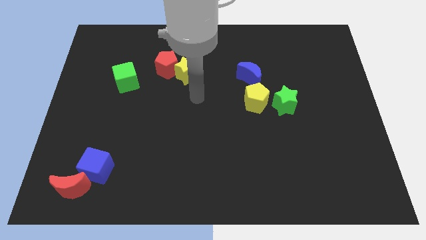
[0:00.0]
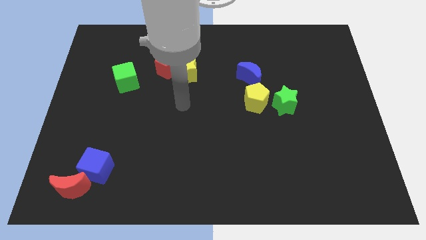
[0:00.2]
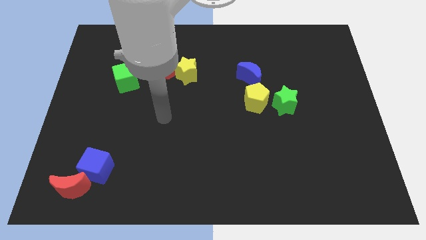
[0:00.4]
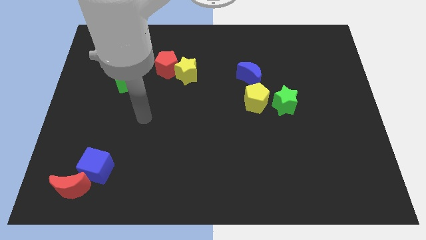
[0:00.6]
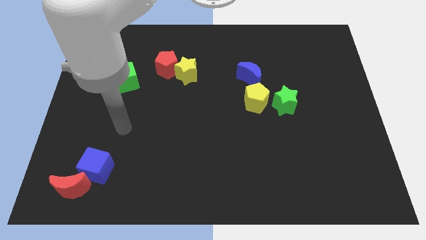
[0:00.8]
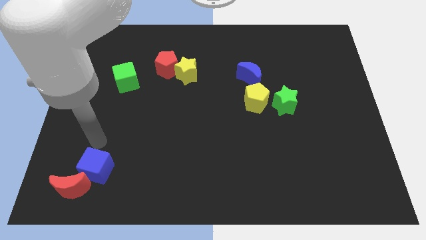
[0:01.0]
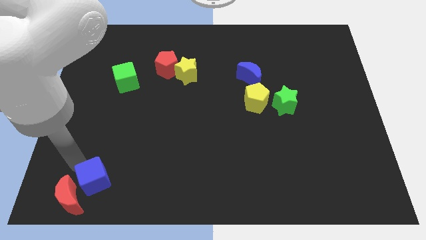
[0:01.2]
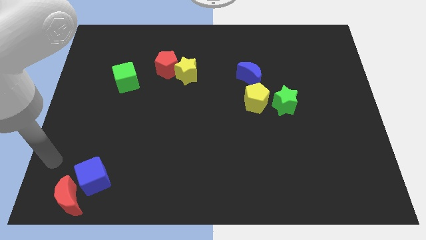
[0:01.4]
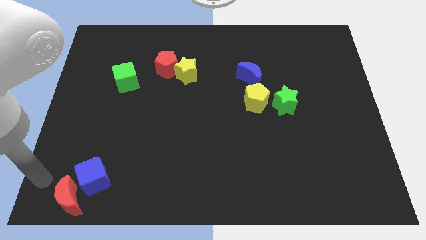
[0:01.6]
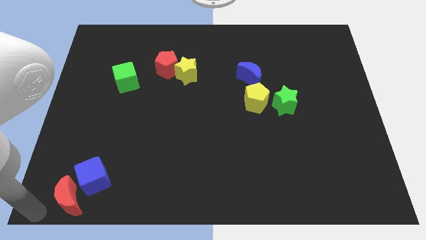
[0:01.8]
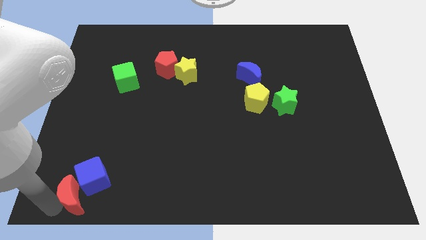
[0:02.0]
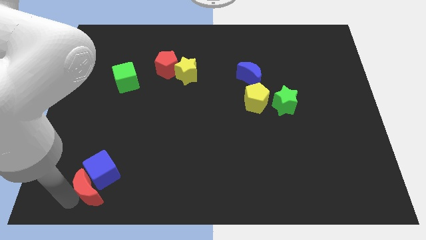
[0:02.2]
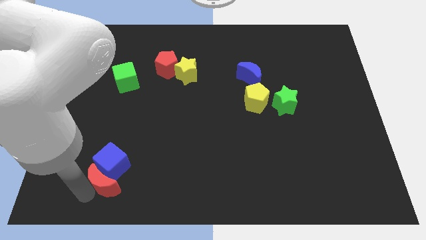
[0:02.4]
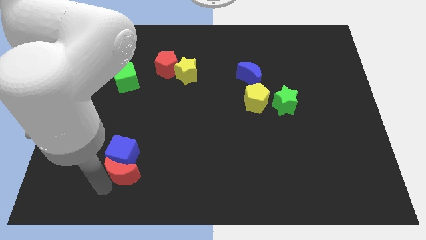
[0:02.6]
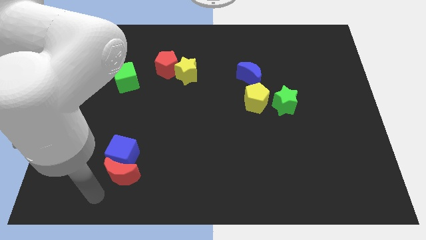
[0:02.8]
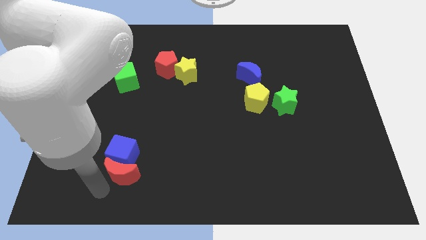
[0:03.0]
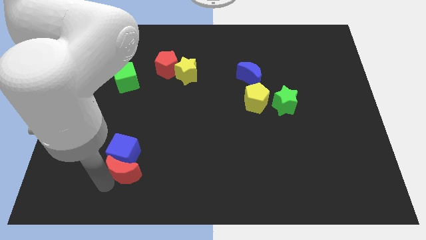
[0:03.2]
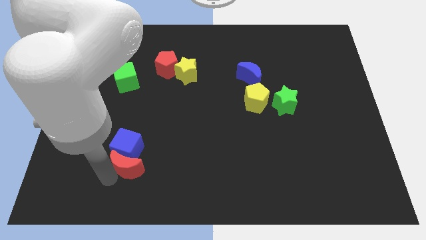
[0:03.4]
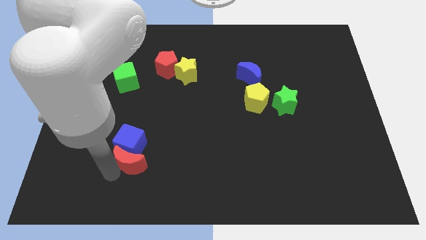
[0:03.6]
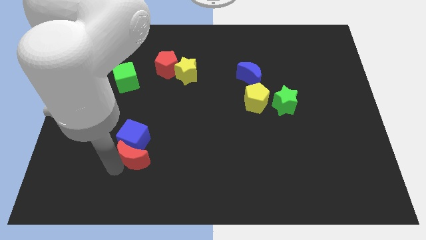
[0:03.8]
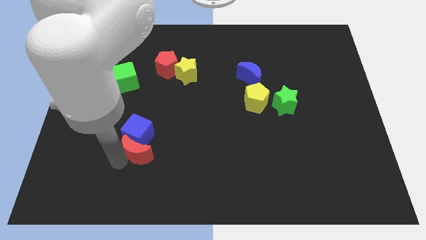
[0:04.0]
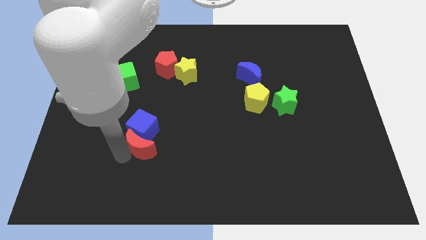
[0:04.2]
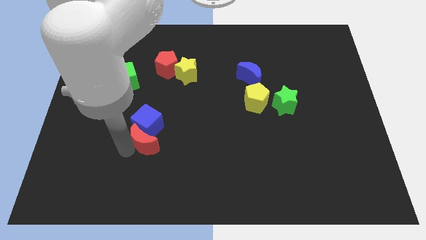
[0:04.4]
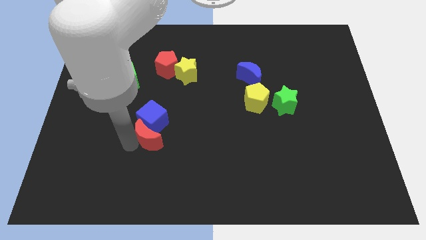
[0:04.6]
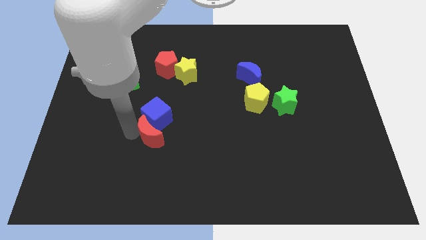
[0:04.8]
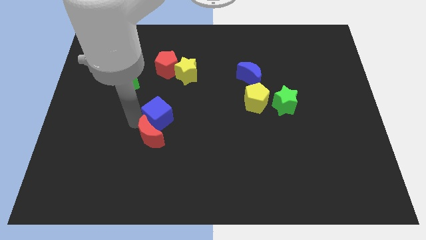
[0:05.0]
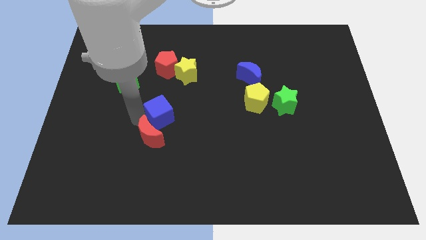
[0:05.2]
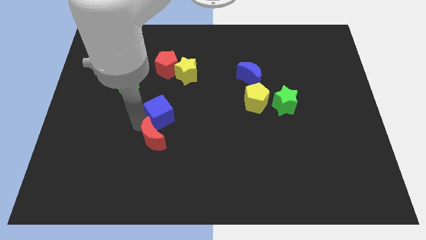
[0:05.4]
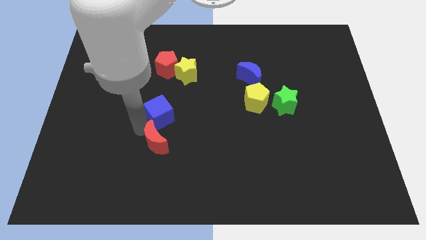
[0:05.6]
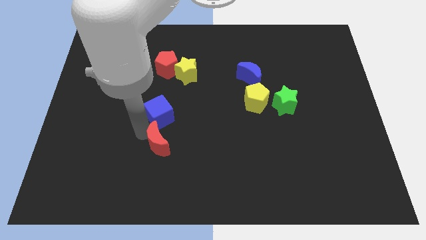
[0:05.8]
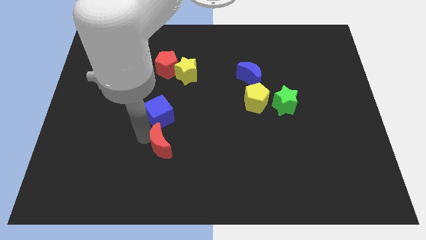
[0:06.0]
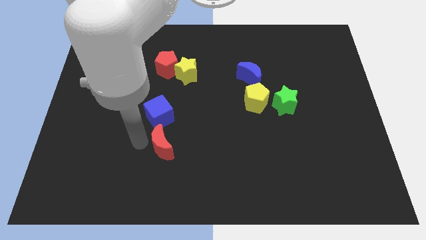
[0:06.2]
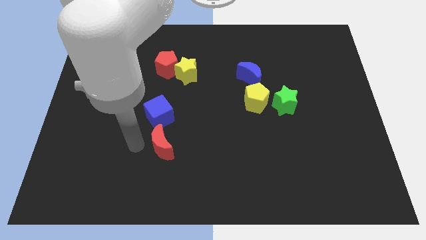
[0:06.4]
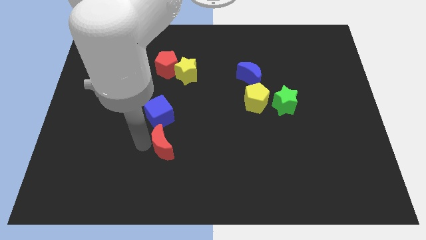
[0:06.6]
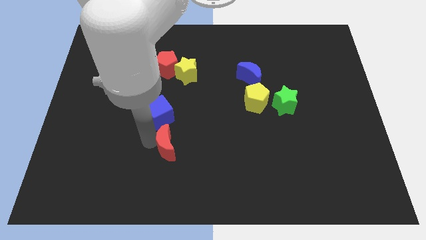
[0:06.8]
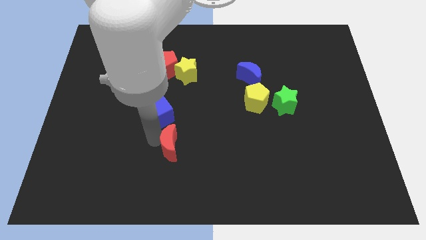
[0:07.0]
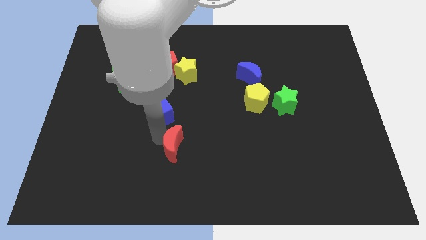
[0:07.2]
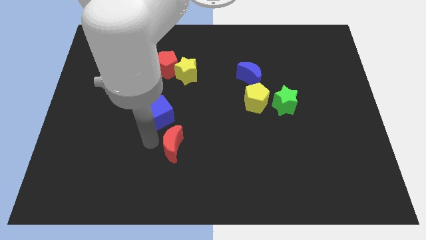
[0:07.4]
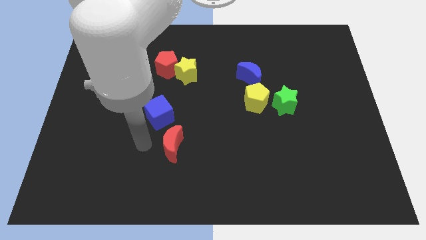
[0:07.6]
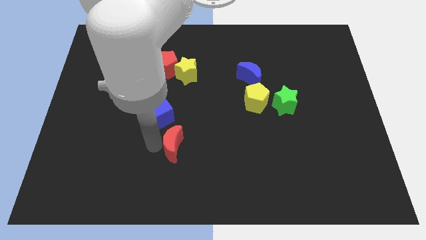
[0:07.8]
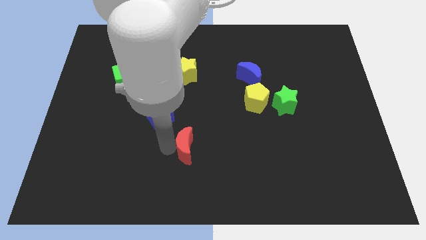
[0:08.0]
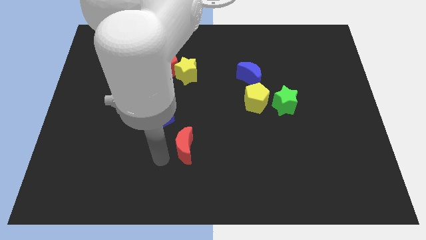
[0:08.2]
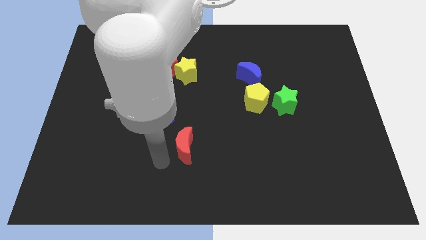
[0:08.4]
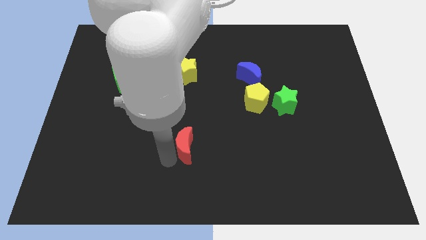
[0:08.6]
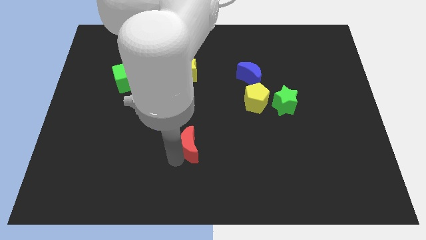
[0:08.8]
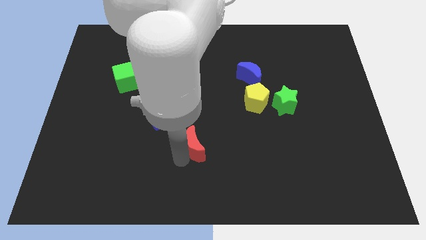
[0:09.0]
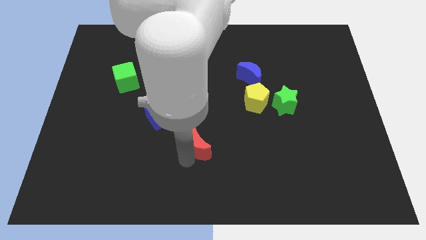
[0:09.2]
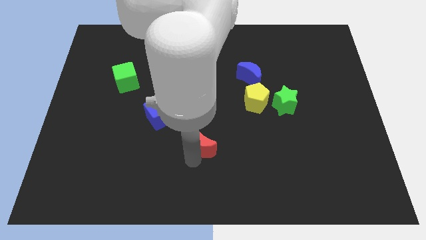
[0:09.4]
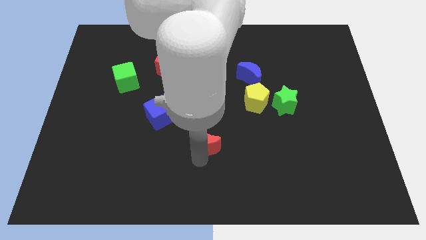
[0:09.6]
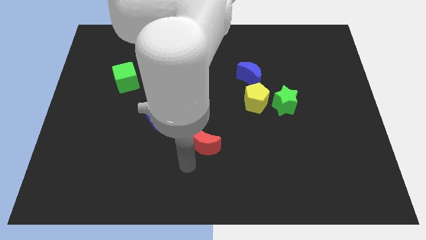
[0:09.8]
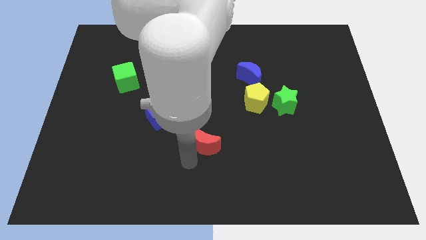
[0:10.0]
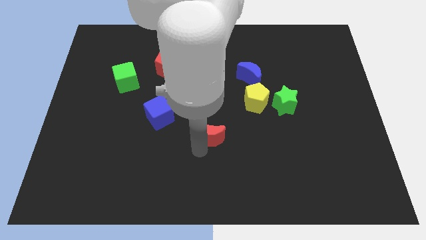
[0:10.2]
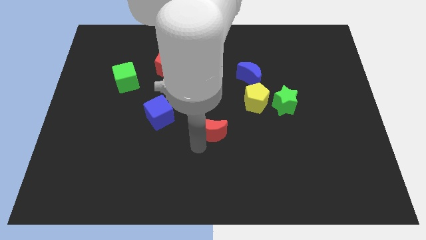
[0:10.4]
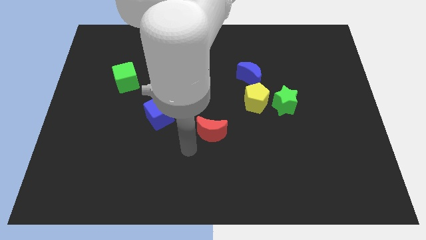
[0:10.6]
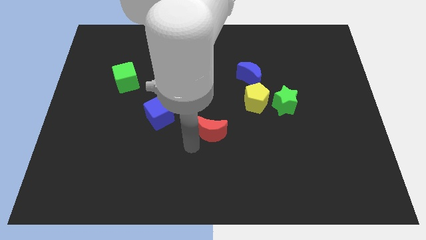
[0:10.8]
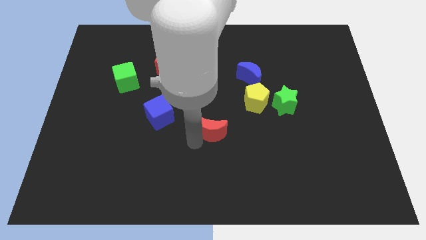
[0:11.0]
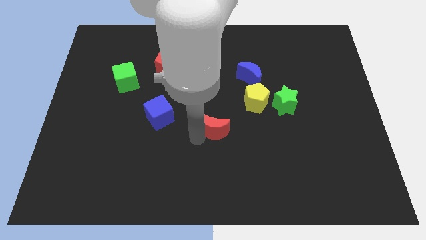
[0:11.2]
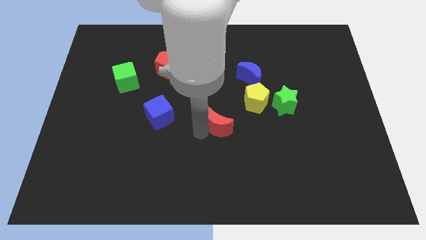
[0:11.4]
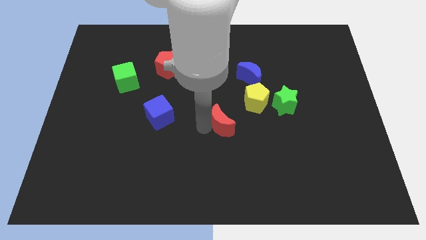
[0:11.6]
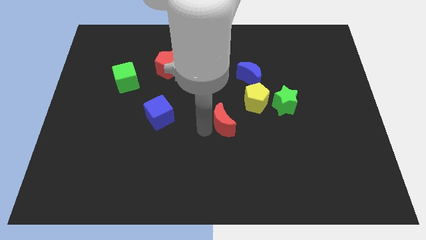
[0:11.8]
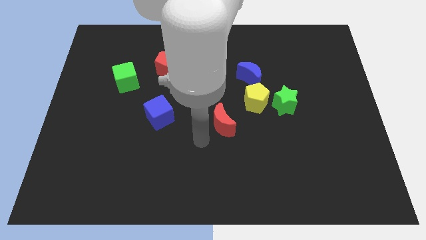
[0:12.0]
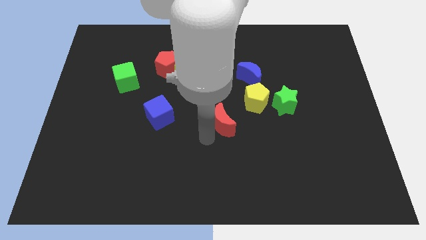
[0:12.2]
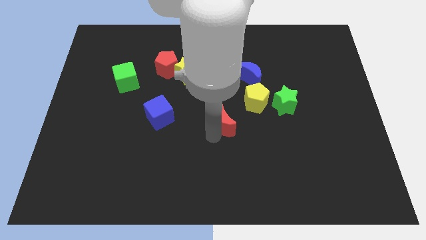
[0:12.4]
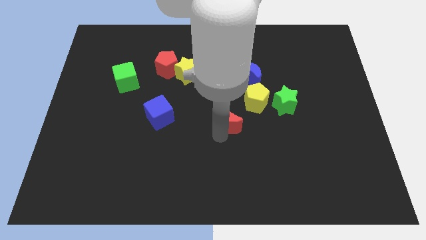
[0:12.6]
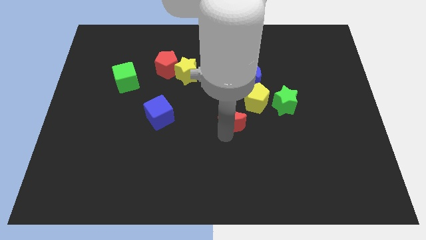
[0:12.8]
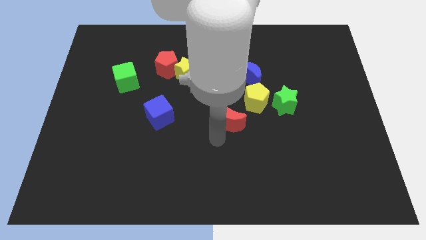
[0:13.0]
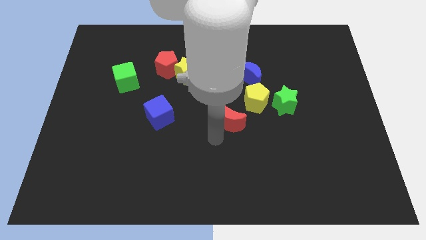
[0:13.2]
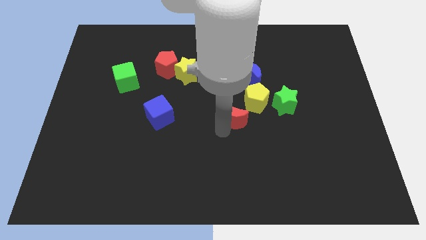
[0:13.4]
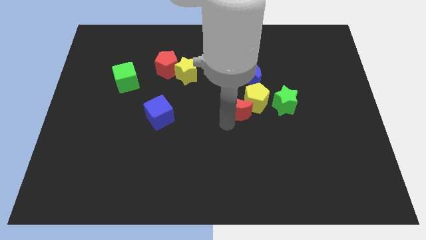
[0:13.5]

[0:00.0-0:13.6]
push the red moon close to the yellow pentagon

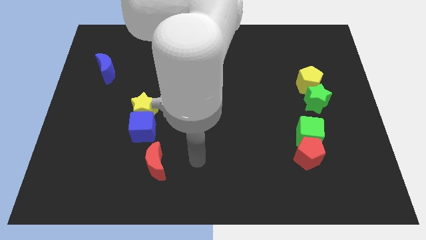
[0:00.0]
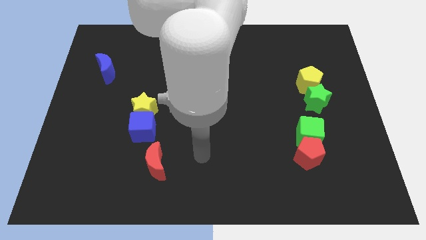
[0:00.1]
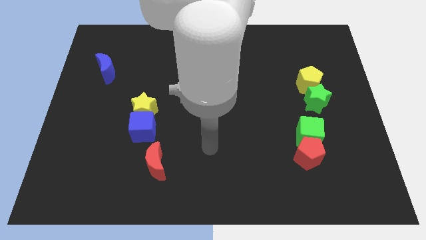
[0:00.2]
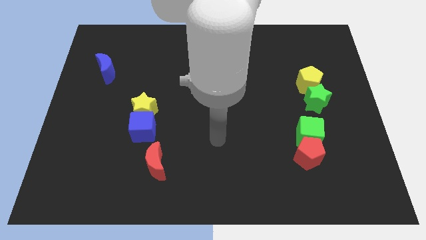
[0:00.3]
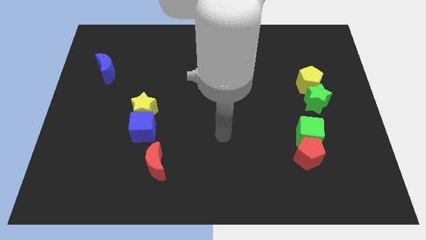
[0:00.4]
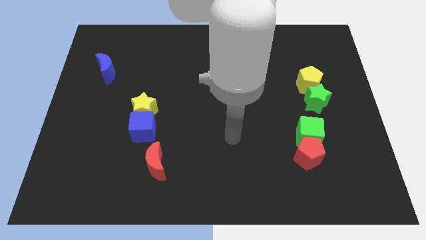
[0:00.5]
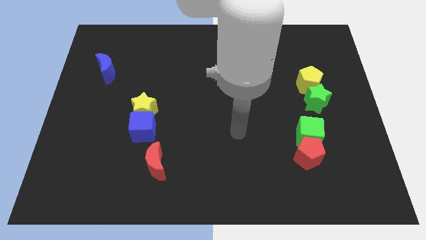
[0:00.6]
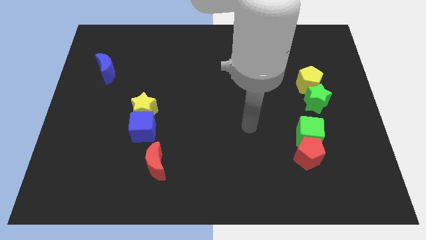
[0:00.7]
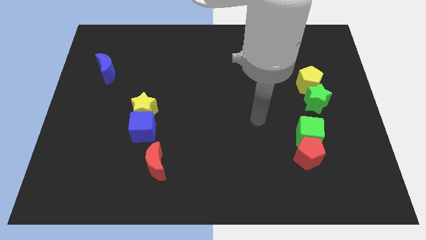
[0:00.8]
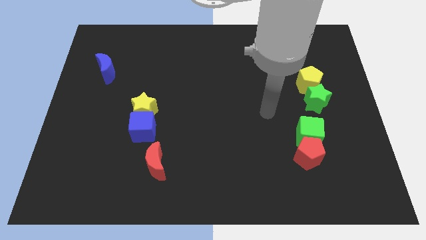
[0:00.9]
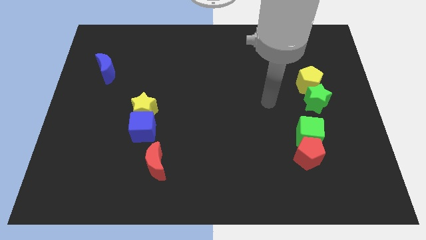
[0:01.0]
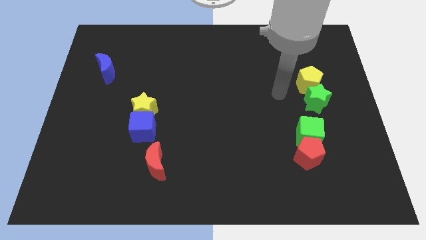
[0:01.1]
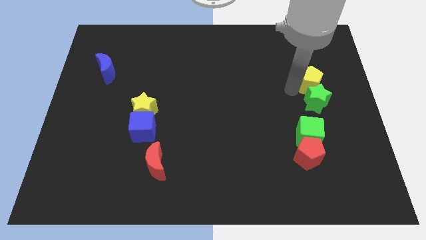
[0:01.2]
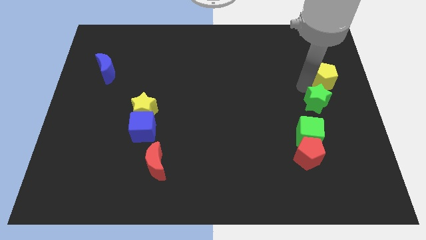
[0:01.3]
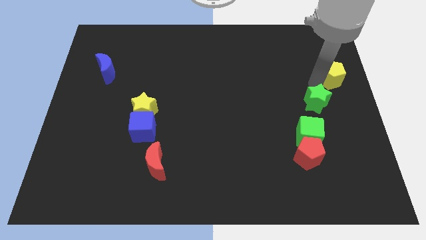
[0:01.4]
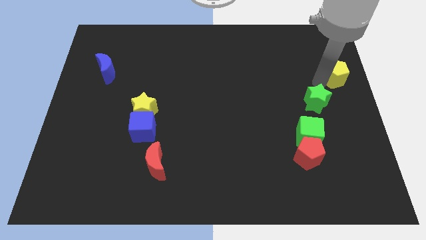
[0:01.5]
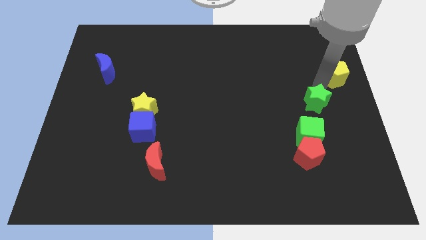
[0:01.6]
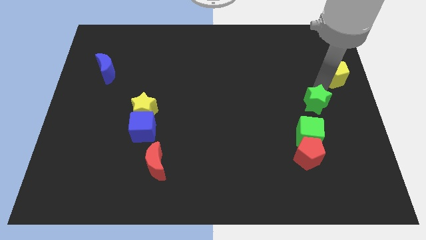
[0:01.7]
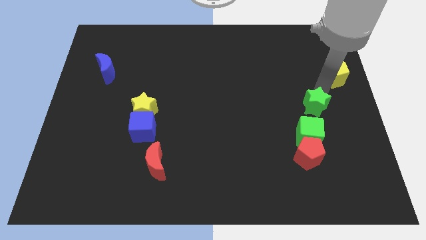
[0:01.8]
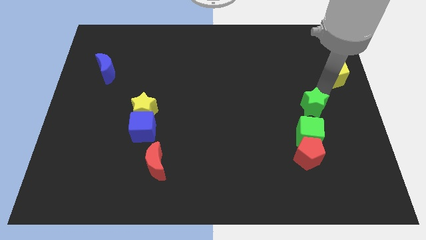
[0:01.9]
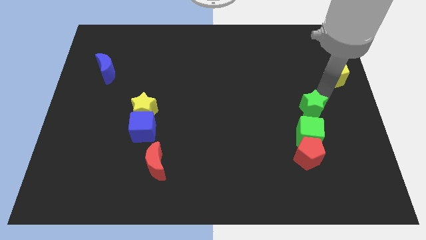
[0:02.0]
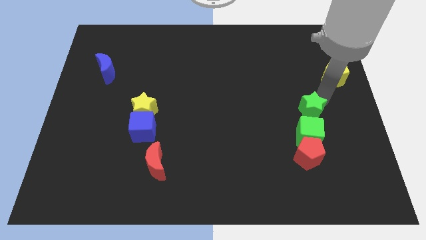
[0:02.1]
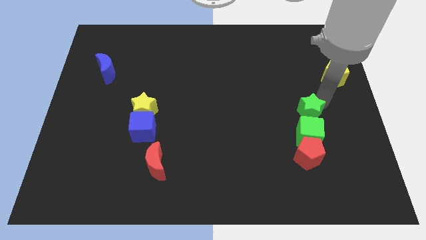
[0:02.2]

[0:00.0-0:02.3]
put the green star close to the green cube
